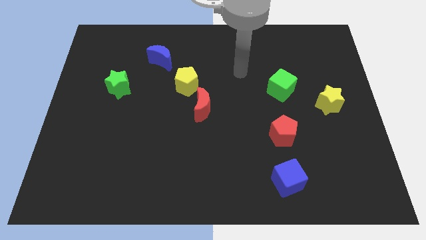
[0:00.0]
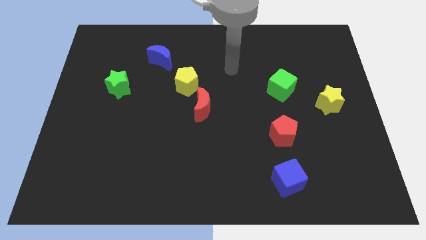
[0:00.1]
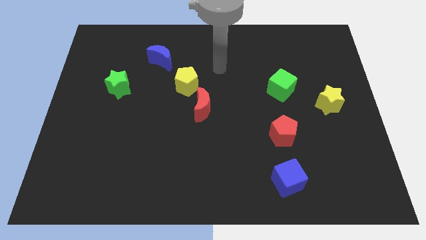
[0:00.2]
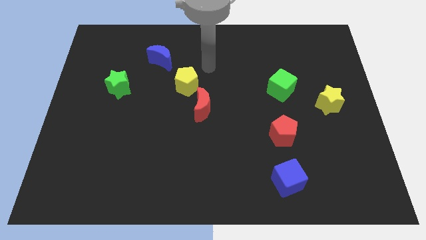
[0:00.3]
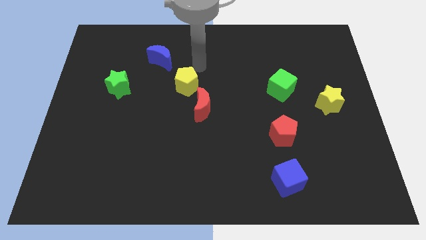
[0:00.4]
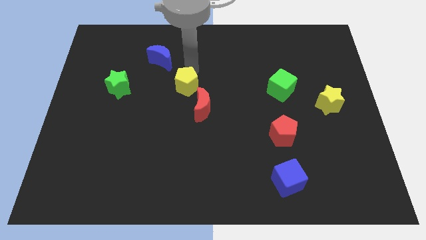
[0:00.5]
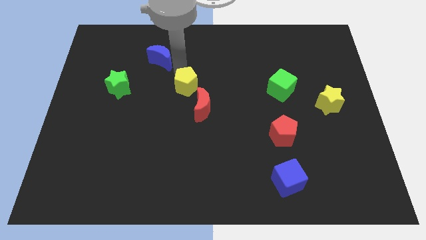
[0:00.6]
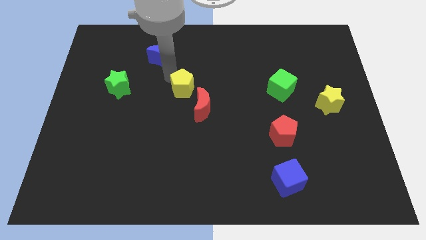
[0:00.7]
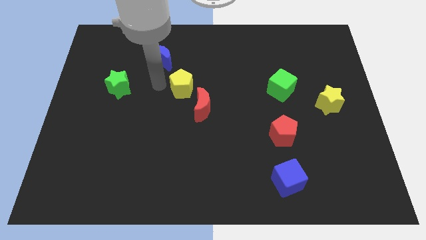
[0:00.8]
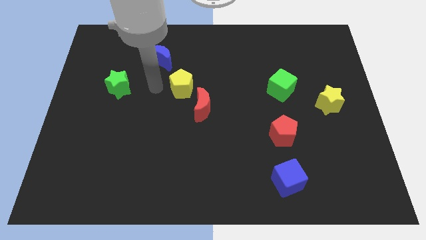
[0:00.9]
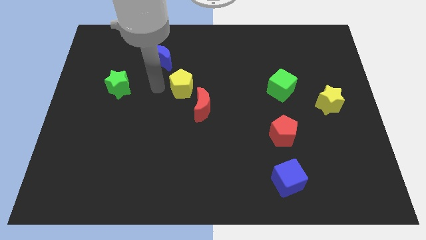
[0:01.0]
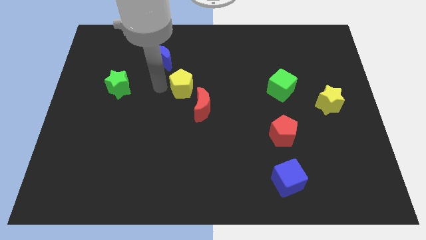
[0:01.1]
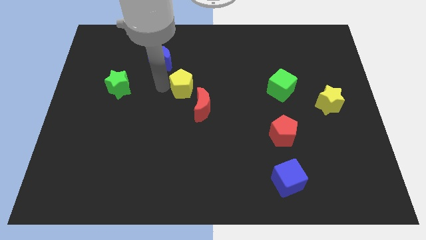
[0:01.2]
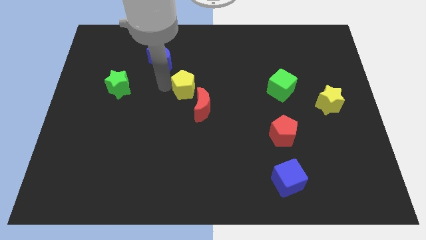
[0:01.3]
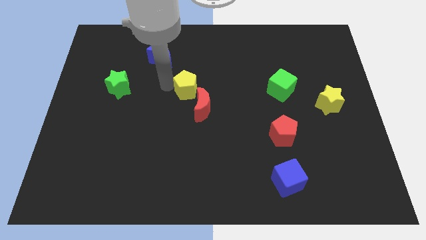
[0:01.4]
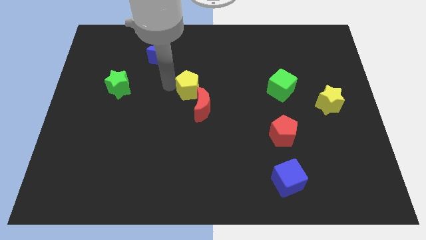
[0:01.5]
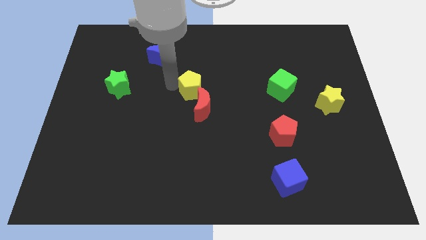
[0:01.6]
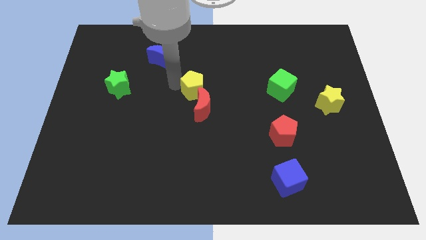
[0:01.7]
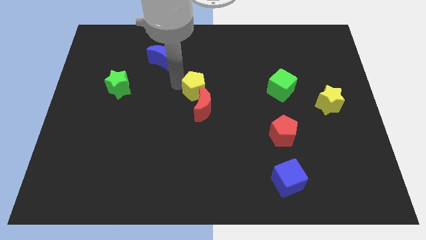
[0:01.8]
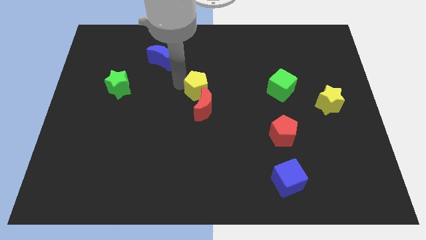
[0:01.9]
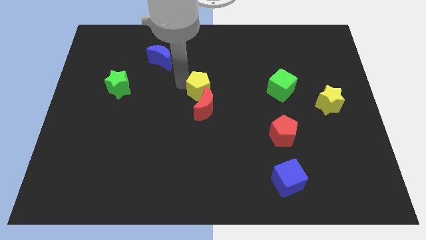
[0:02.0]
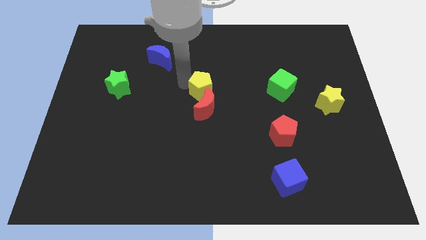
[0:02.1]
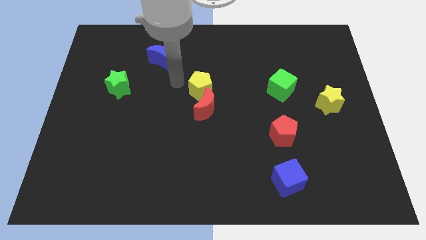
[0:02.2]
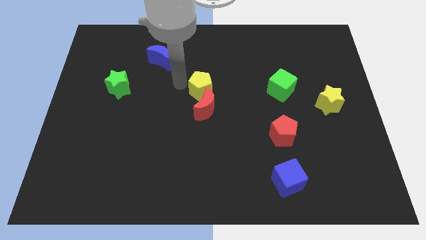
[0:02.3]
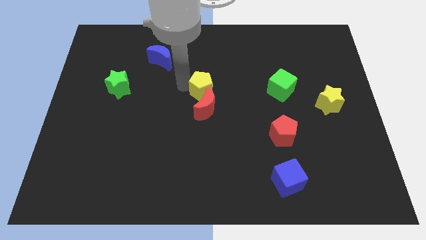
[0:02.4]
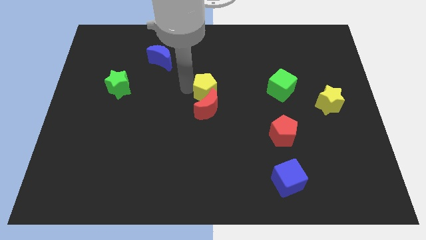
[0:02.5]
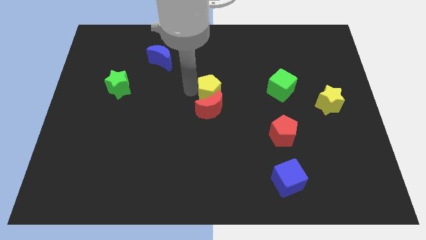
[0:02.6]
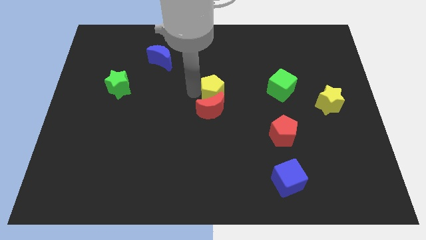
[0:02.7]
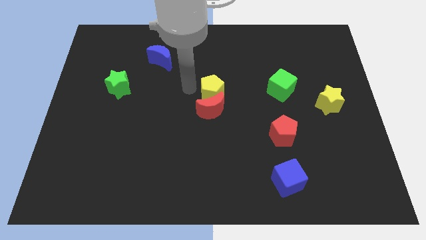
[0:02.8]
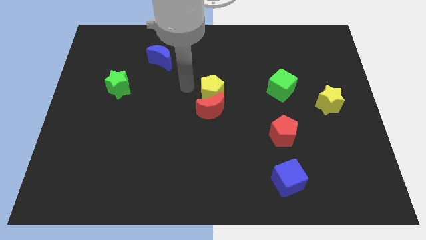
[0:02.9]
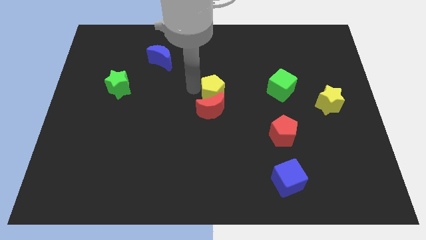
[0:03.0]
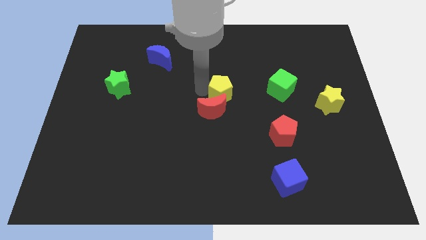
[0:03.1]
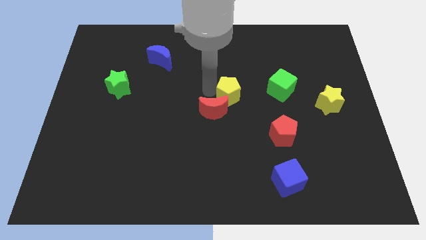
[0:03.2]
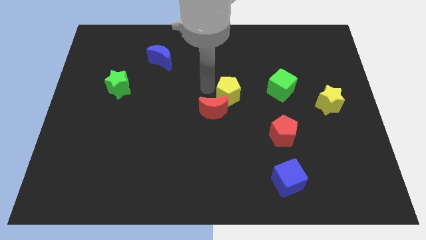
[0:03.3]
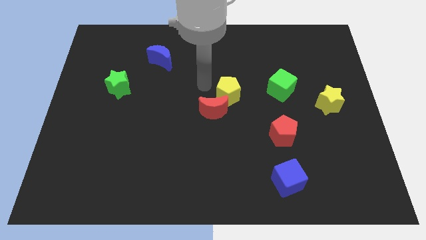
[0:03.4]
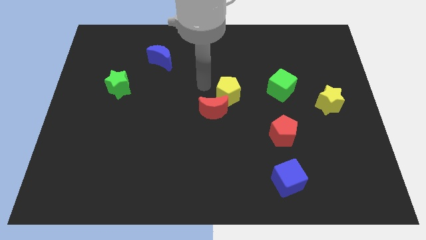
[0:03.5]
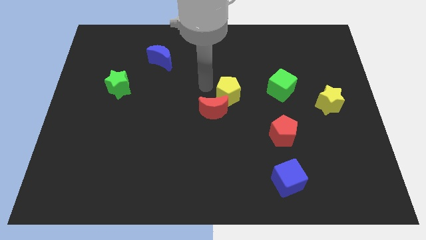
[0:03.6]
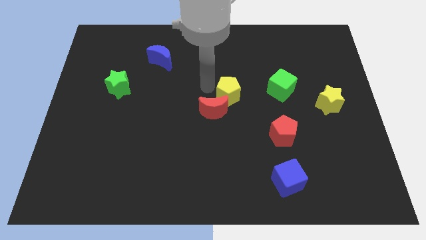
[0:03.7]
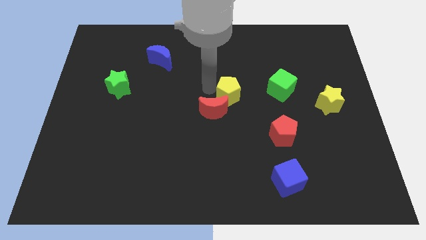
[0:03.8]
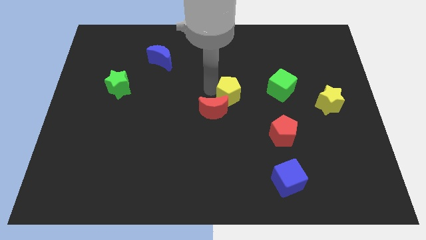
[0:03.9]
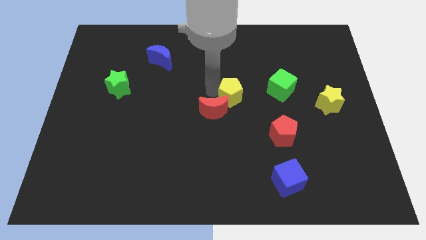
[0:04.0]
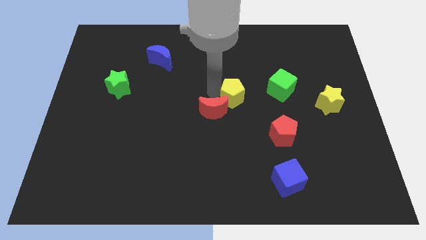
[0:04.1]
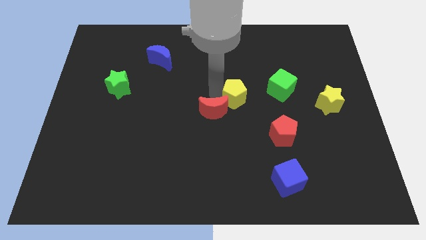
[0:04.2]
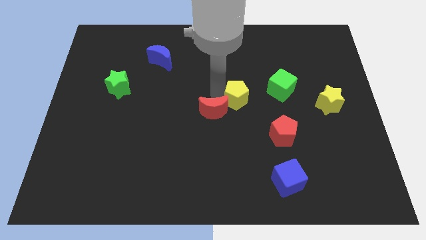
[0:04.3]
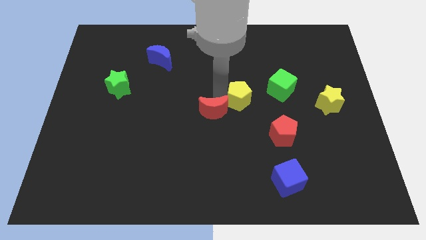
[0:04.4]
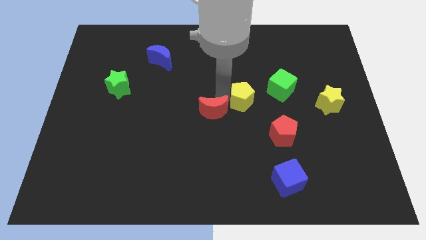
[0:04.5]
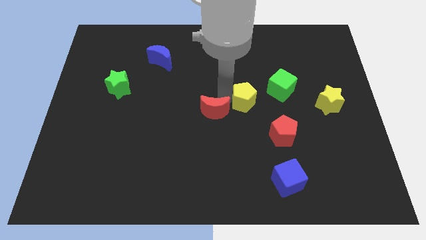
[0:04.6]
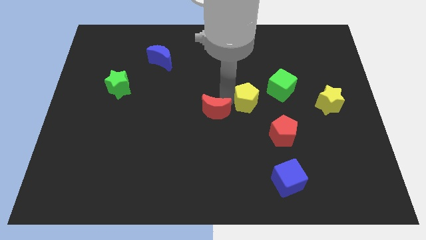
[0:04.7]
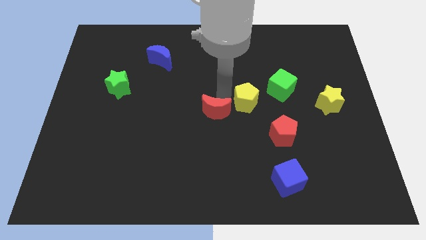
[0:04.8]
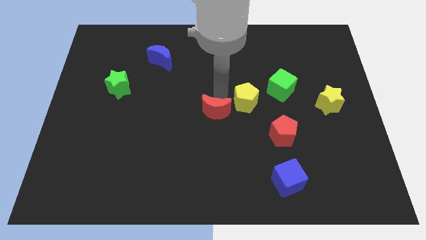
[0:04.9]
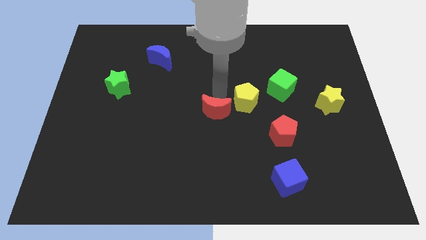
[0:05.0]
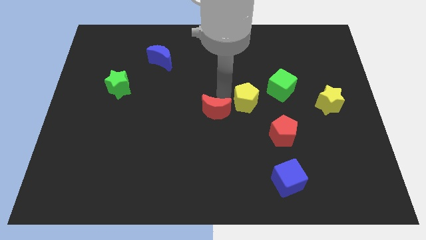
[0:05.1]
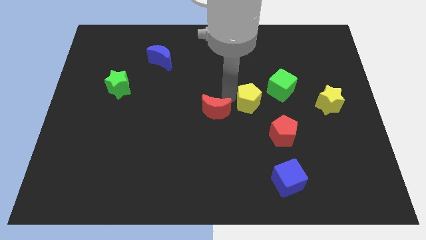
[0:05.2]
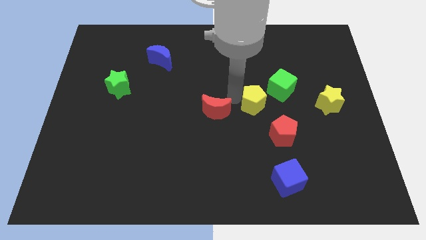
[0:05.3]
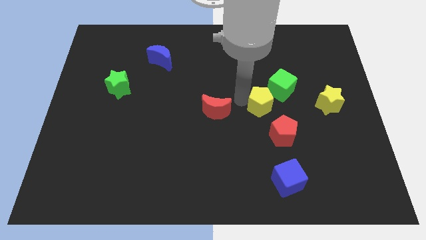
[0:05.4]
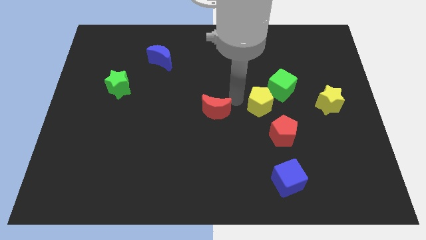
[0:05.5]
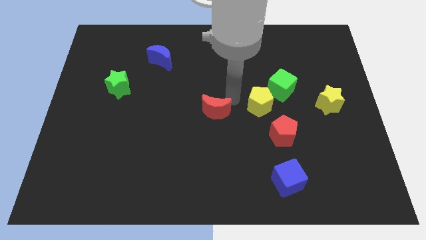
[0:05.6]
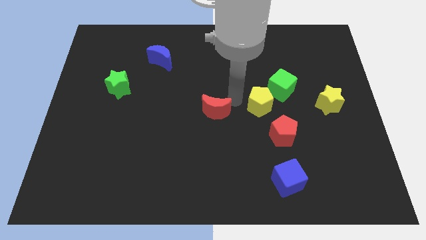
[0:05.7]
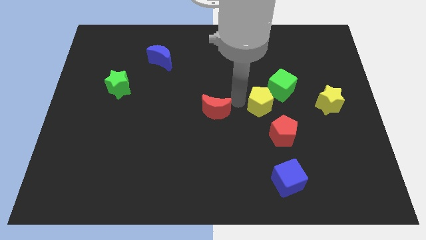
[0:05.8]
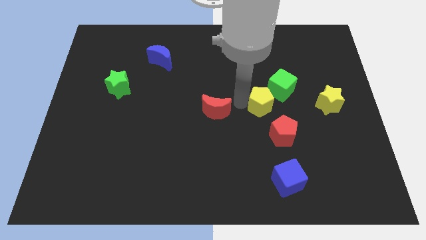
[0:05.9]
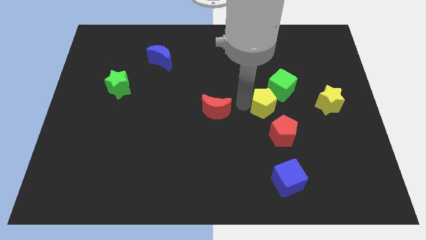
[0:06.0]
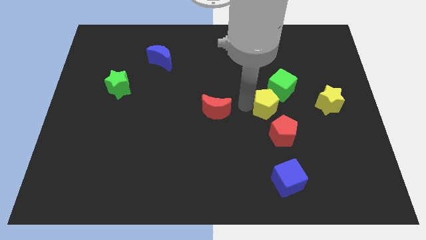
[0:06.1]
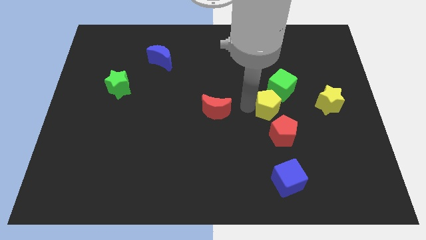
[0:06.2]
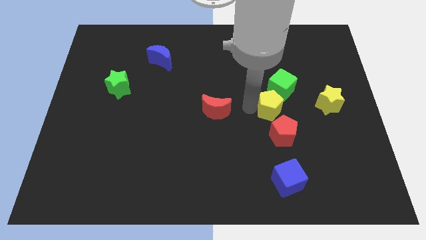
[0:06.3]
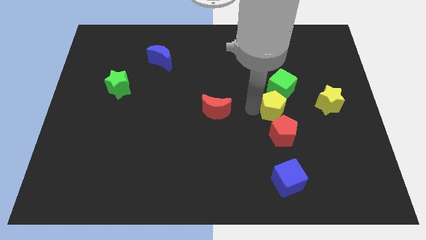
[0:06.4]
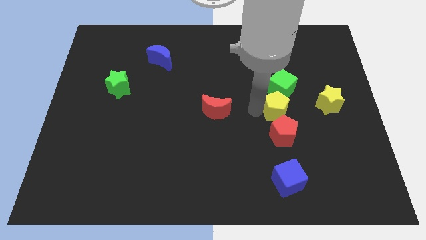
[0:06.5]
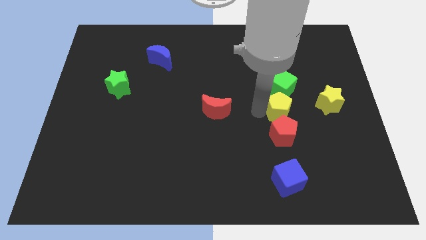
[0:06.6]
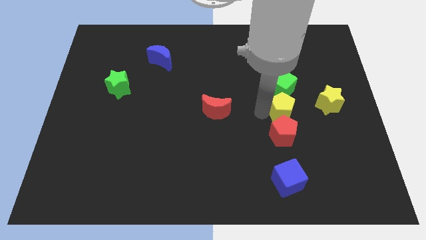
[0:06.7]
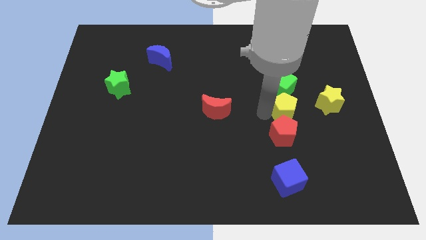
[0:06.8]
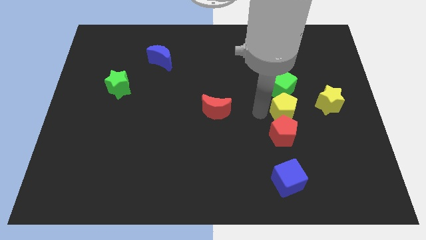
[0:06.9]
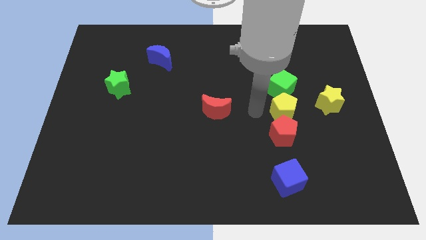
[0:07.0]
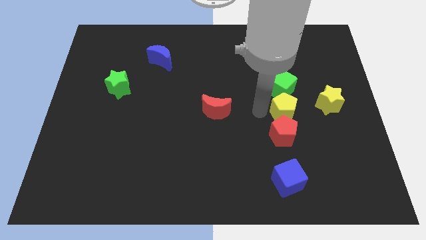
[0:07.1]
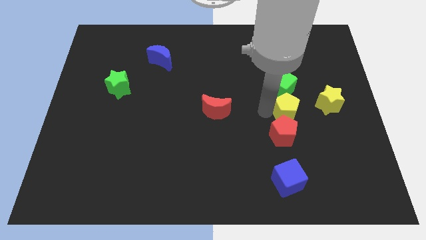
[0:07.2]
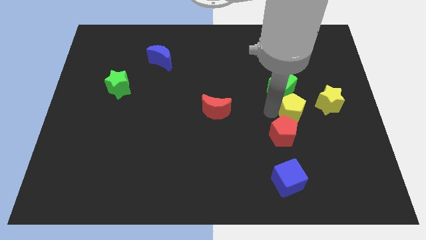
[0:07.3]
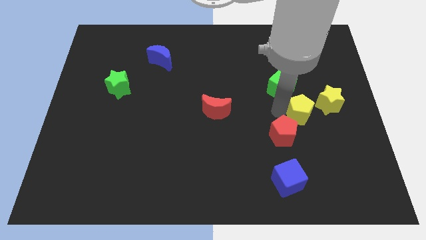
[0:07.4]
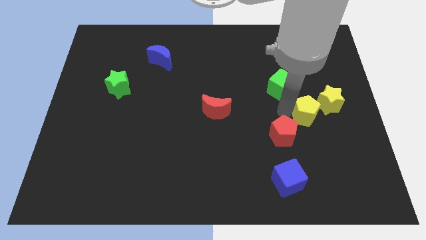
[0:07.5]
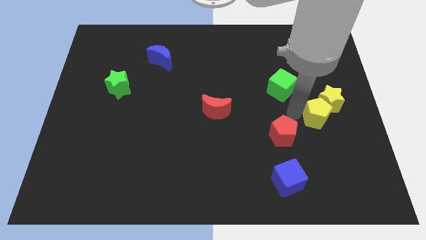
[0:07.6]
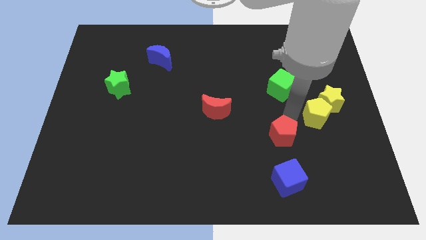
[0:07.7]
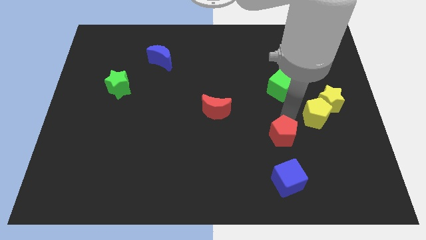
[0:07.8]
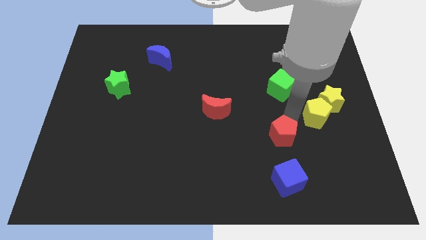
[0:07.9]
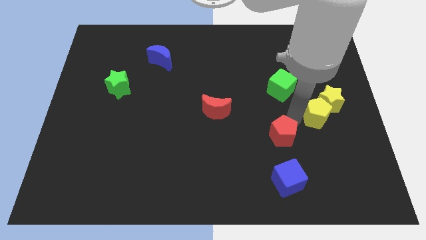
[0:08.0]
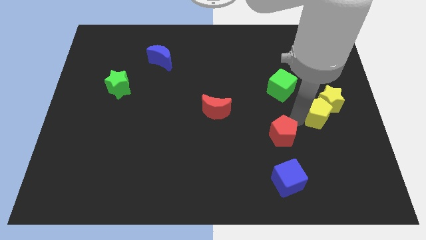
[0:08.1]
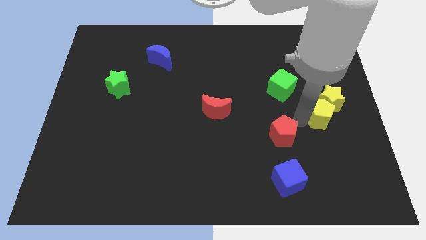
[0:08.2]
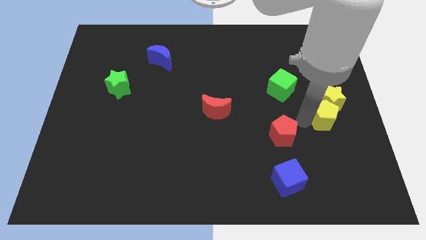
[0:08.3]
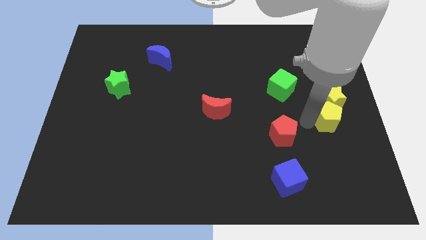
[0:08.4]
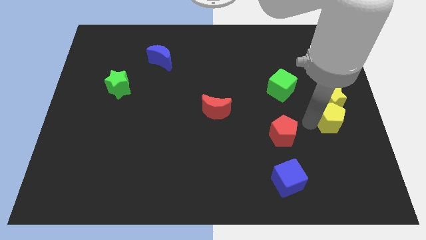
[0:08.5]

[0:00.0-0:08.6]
move the yellow pentagon to the center right
